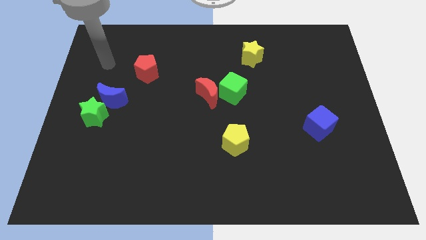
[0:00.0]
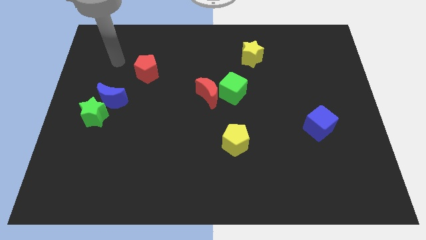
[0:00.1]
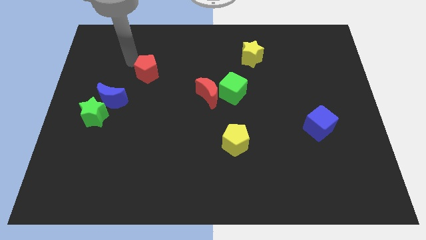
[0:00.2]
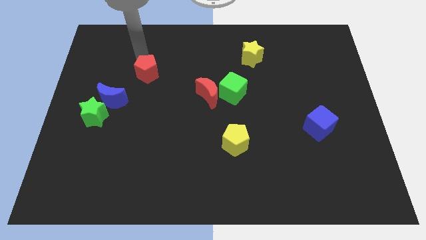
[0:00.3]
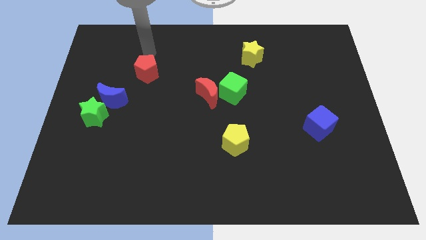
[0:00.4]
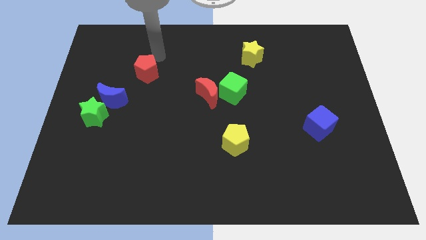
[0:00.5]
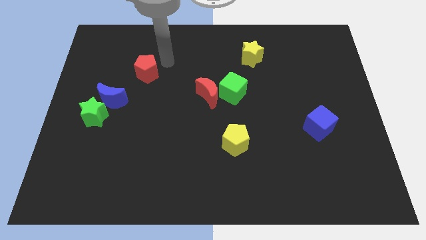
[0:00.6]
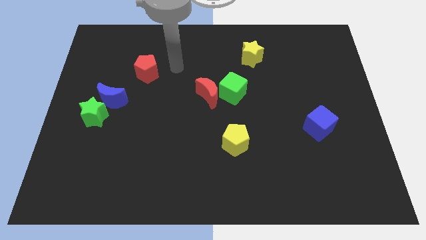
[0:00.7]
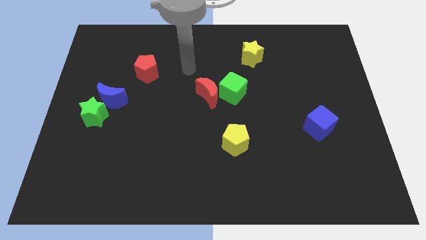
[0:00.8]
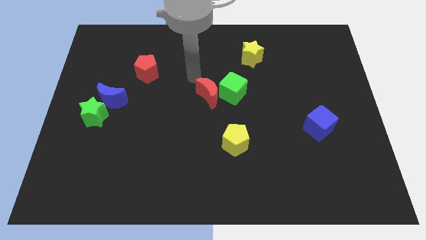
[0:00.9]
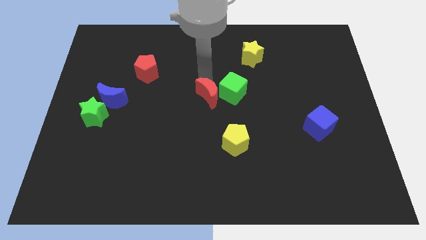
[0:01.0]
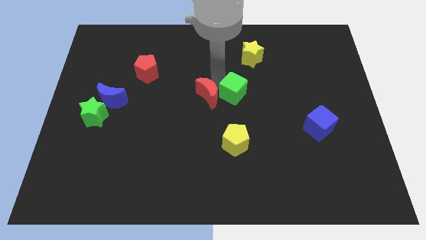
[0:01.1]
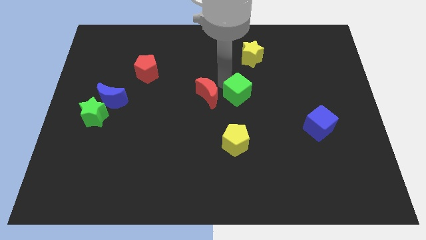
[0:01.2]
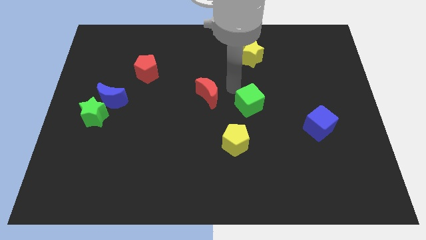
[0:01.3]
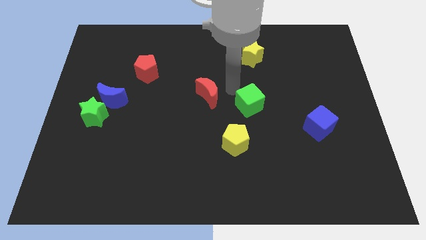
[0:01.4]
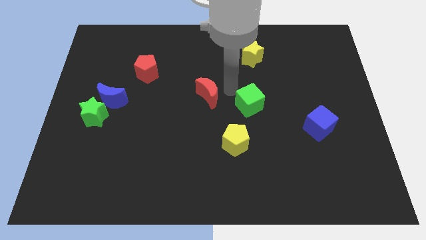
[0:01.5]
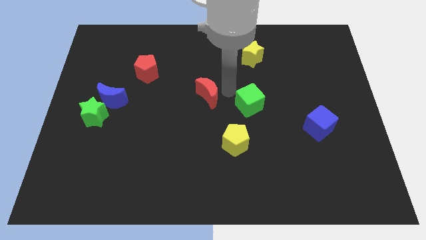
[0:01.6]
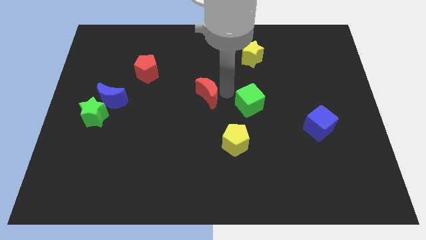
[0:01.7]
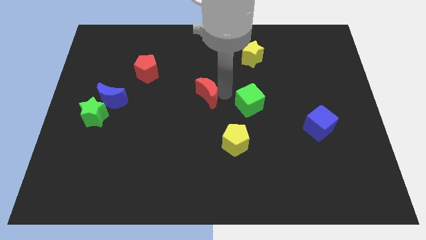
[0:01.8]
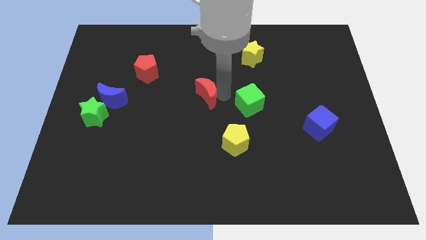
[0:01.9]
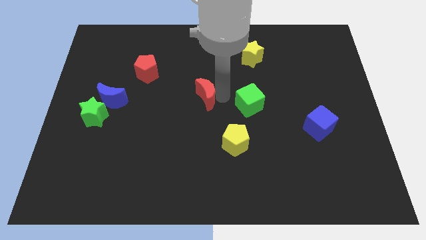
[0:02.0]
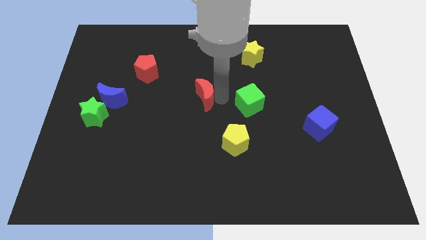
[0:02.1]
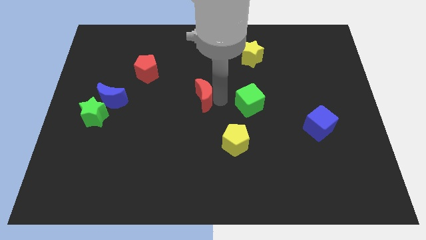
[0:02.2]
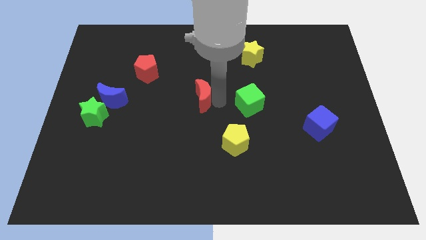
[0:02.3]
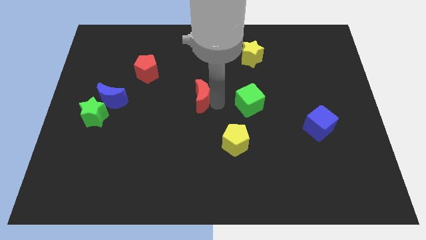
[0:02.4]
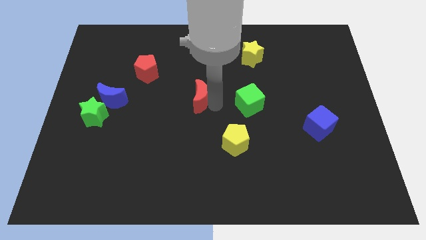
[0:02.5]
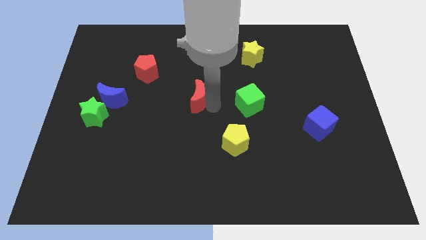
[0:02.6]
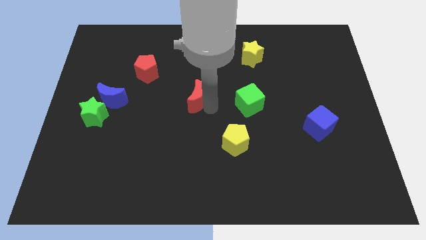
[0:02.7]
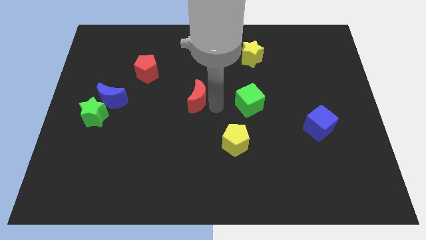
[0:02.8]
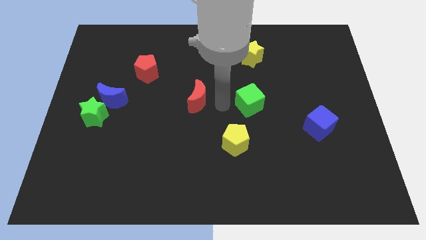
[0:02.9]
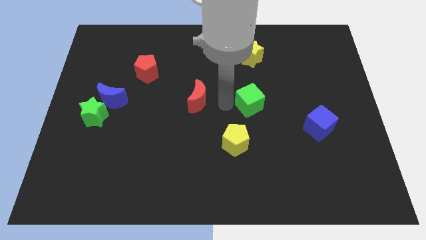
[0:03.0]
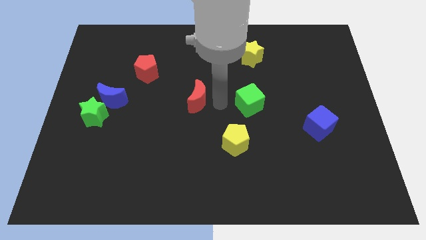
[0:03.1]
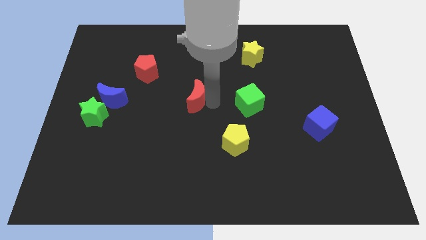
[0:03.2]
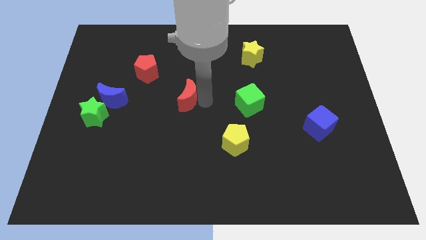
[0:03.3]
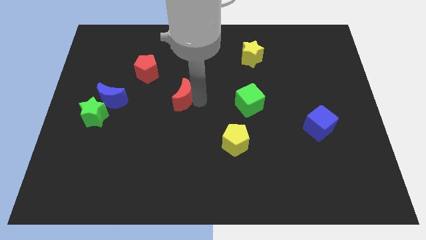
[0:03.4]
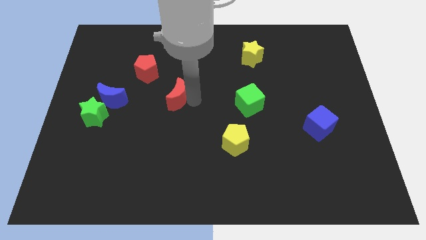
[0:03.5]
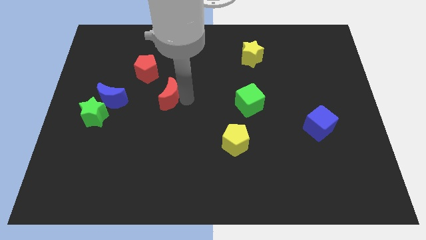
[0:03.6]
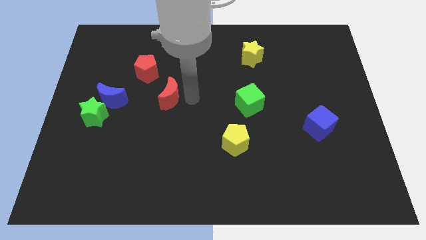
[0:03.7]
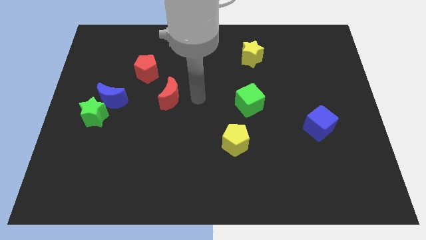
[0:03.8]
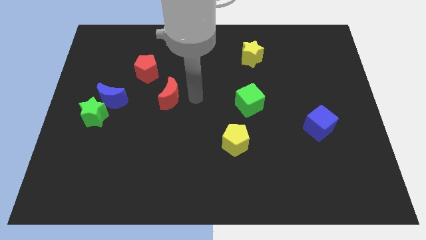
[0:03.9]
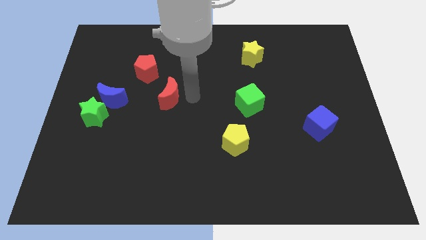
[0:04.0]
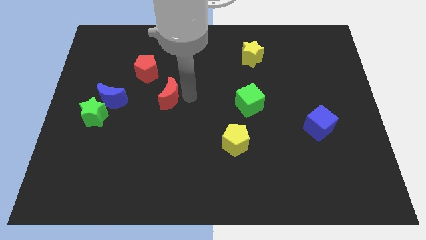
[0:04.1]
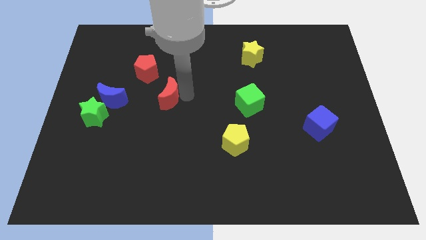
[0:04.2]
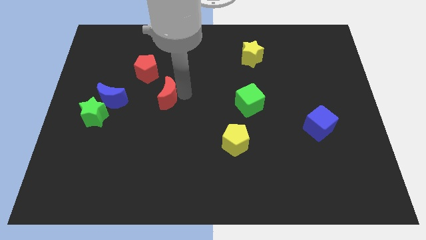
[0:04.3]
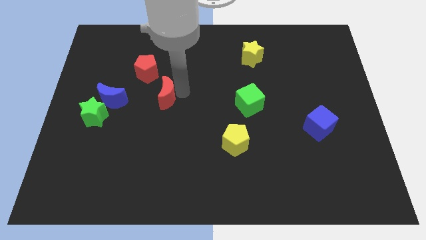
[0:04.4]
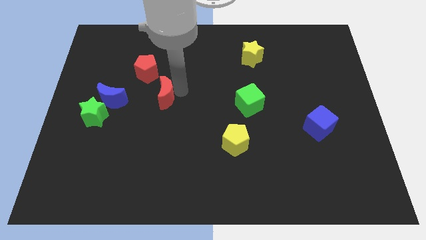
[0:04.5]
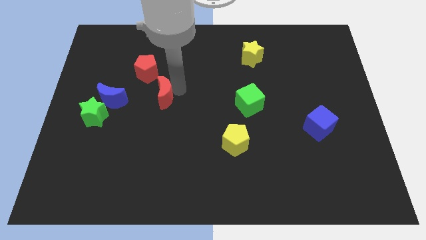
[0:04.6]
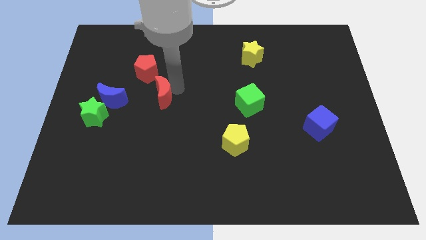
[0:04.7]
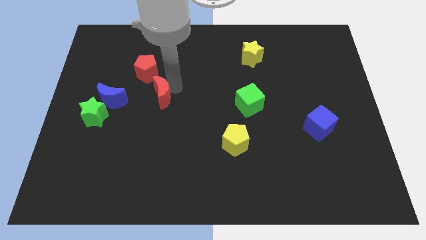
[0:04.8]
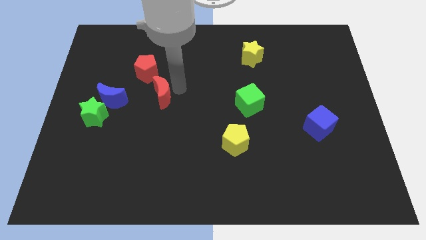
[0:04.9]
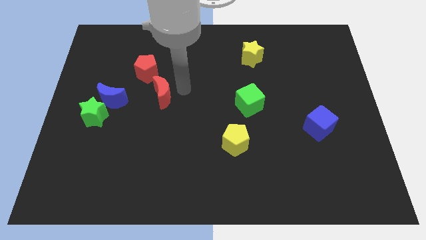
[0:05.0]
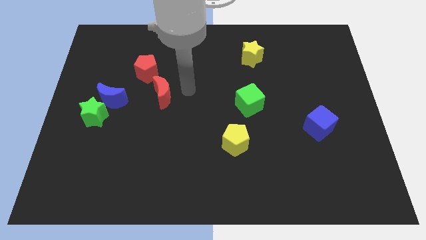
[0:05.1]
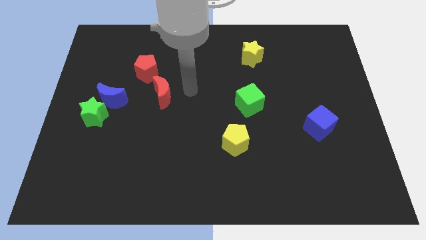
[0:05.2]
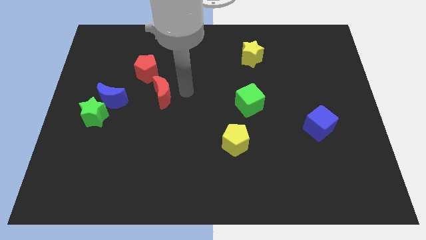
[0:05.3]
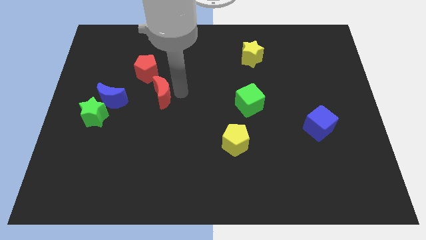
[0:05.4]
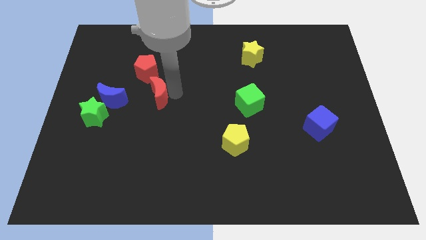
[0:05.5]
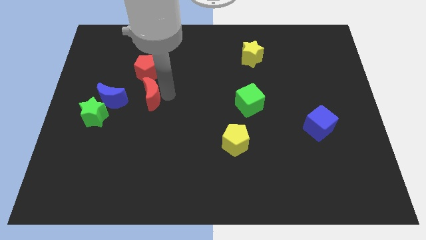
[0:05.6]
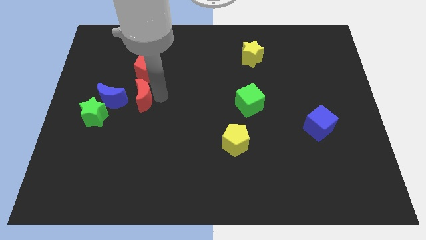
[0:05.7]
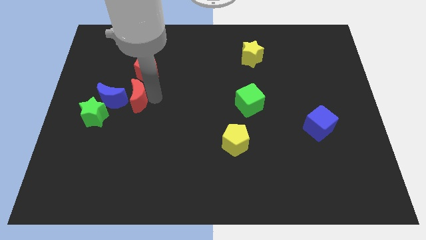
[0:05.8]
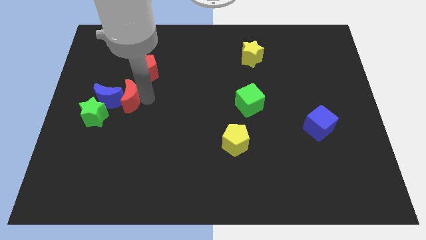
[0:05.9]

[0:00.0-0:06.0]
slide the red moon towards the blue moon

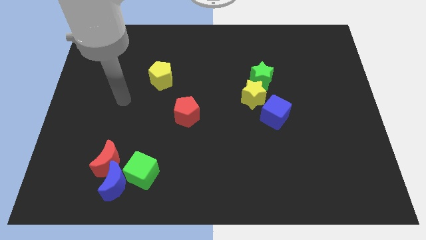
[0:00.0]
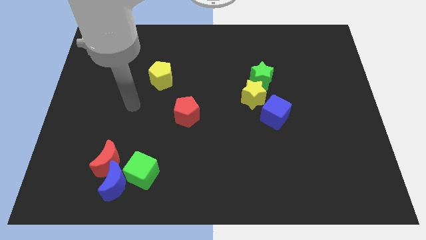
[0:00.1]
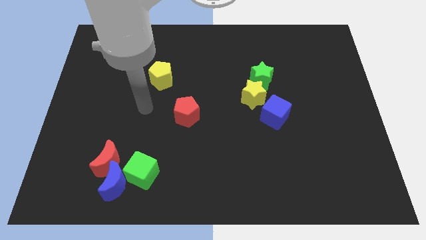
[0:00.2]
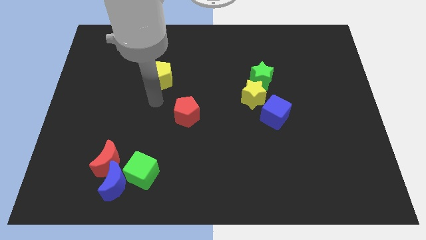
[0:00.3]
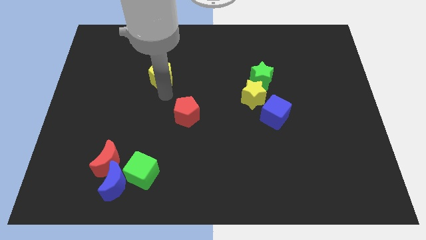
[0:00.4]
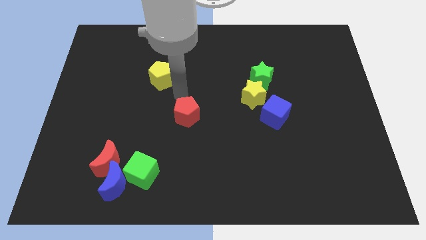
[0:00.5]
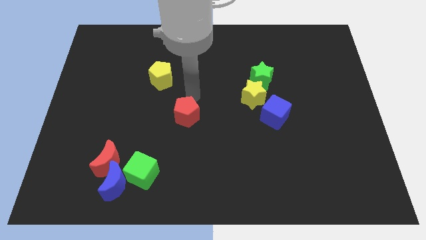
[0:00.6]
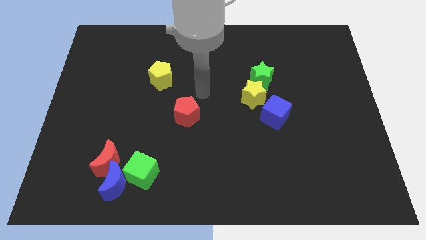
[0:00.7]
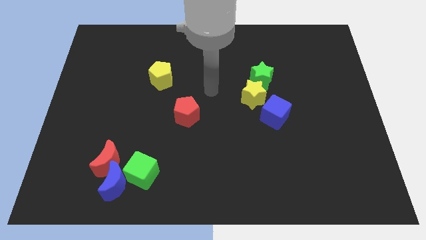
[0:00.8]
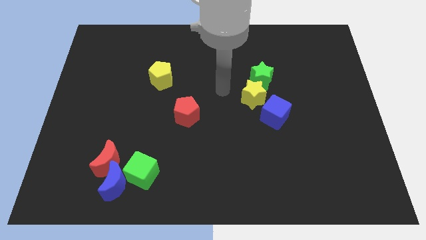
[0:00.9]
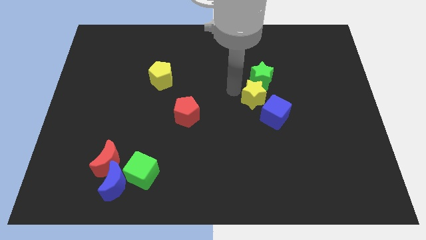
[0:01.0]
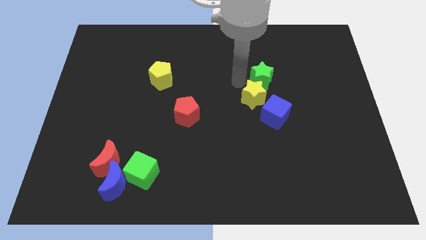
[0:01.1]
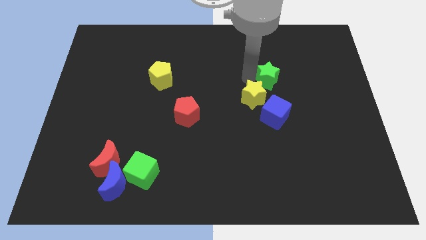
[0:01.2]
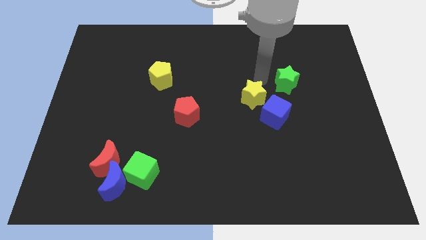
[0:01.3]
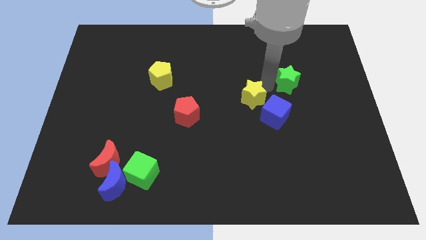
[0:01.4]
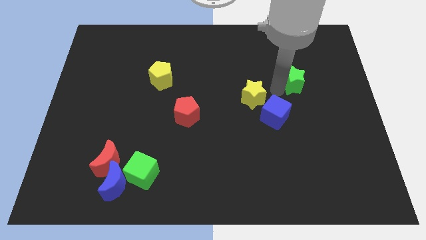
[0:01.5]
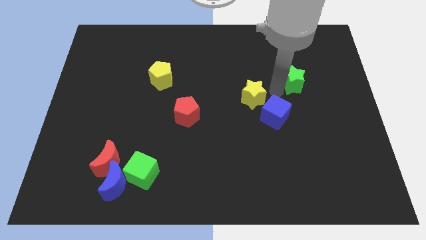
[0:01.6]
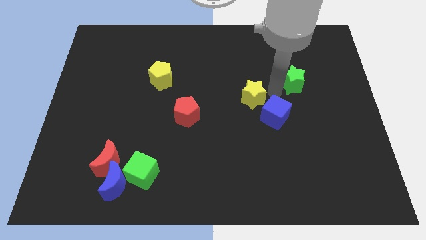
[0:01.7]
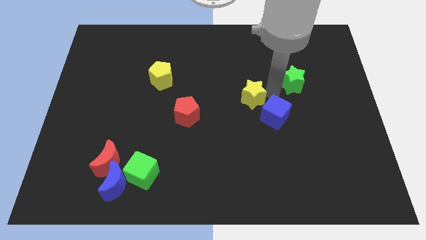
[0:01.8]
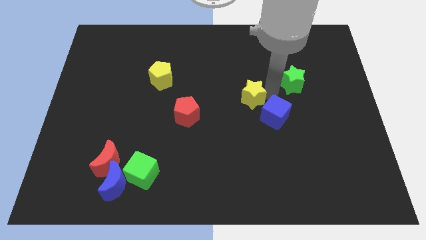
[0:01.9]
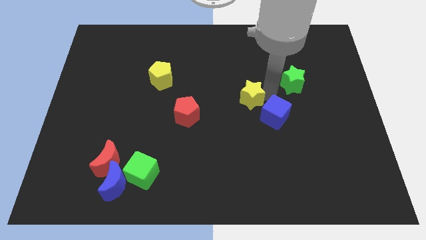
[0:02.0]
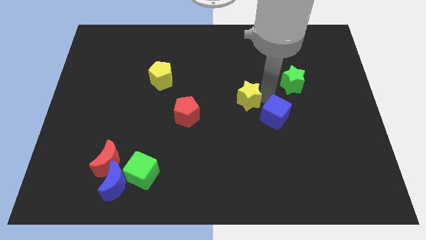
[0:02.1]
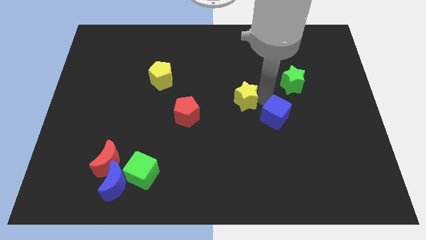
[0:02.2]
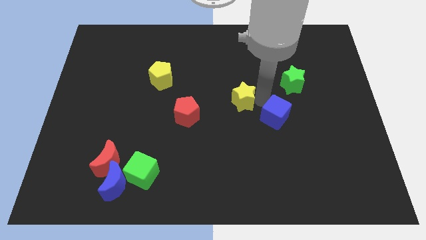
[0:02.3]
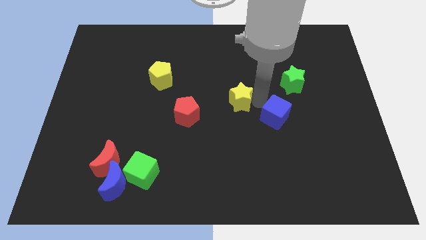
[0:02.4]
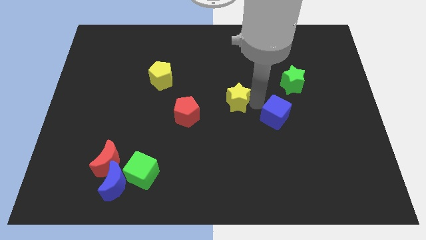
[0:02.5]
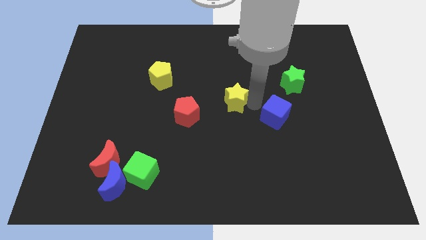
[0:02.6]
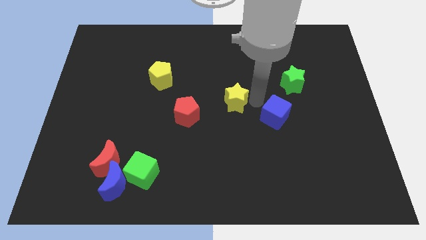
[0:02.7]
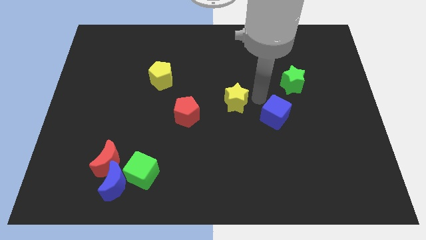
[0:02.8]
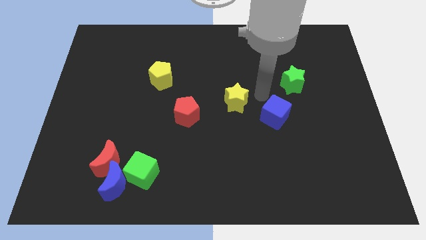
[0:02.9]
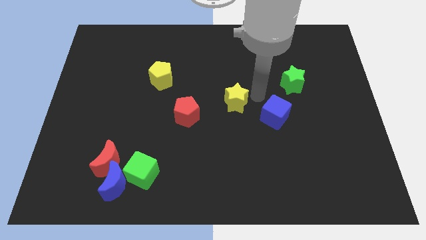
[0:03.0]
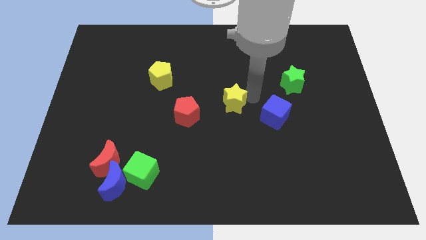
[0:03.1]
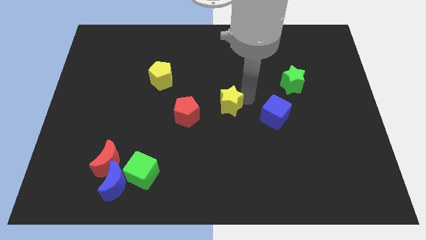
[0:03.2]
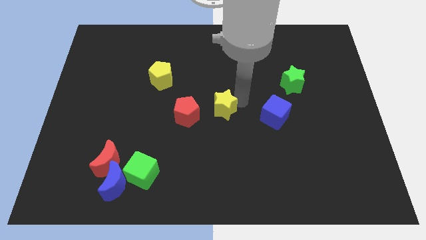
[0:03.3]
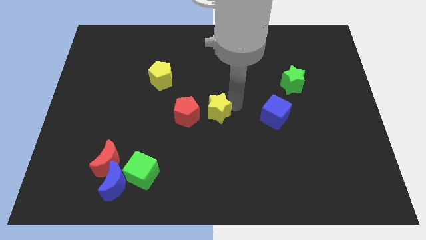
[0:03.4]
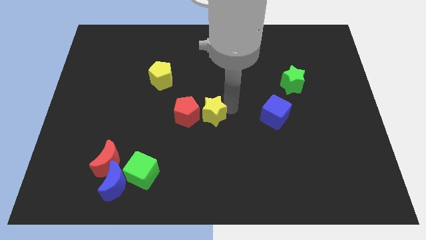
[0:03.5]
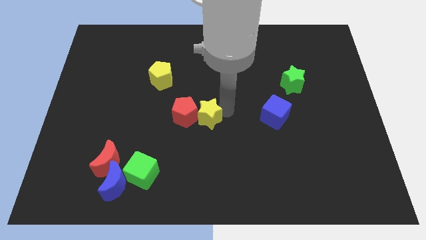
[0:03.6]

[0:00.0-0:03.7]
push the yellow star to the red pentagon
